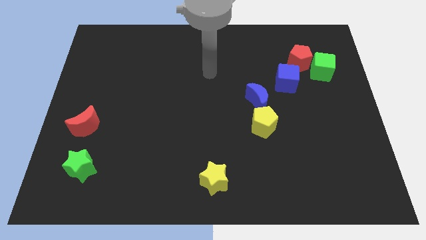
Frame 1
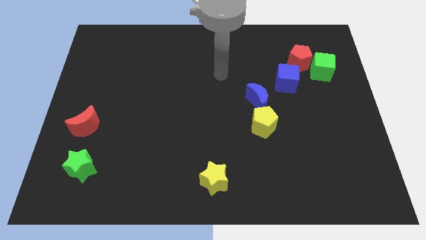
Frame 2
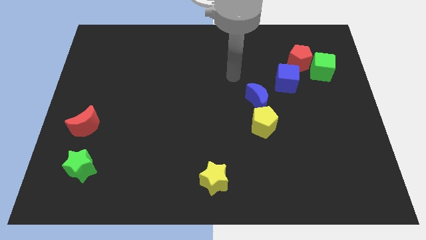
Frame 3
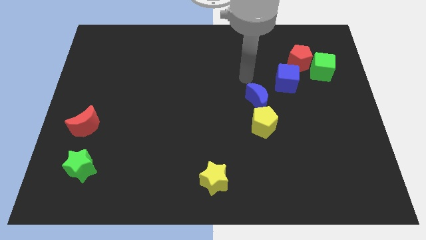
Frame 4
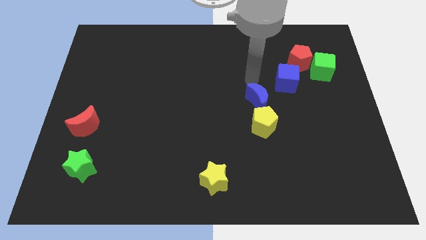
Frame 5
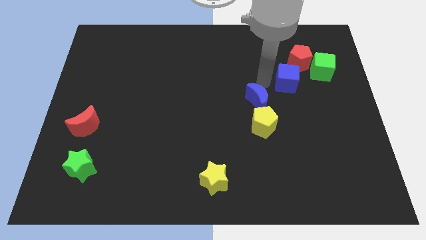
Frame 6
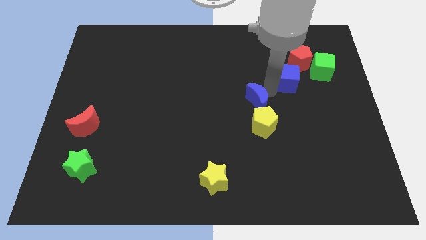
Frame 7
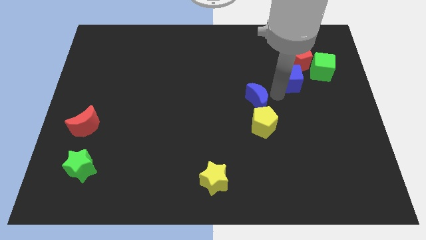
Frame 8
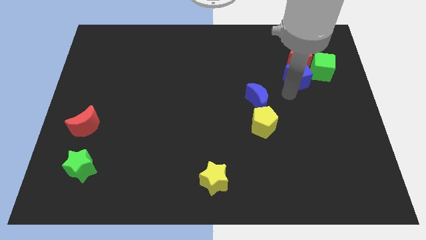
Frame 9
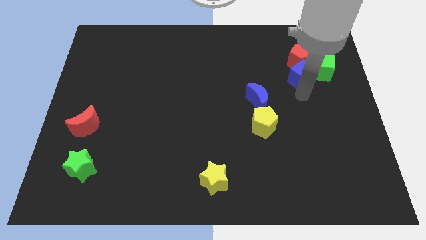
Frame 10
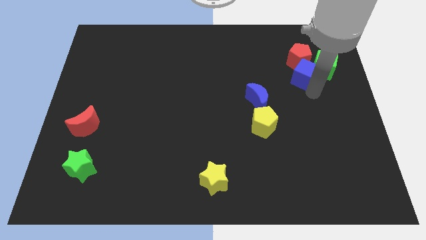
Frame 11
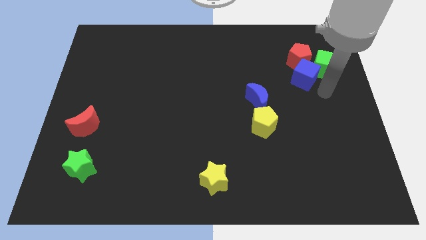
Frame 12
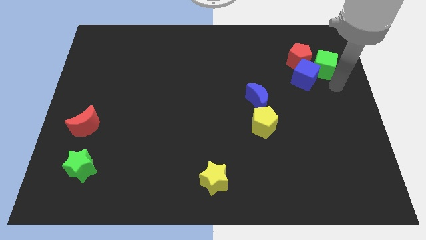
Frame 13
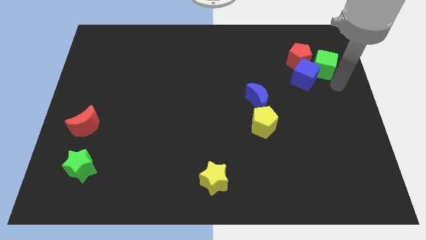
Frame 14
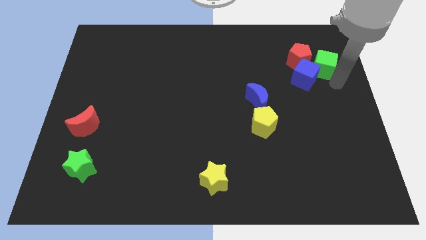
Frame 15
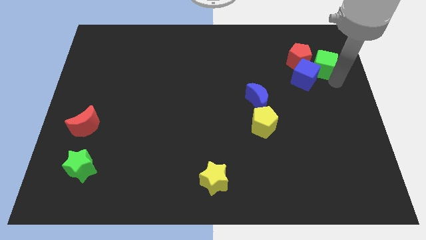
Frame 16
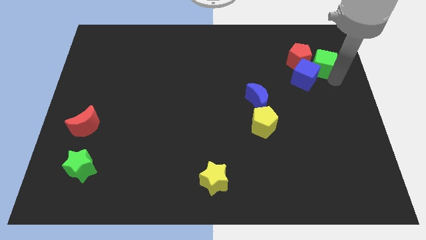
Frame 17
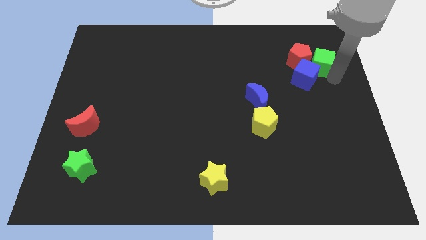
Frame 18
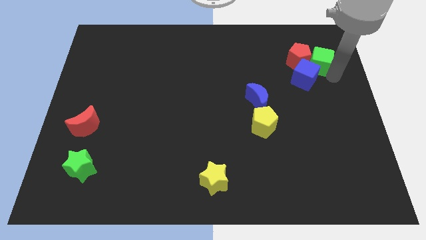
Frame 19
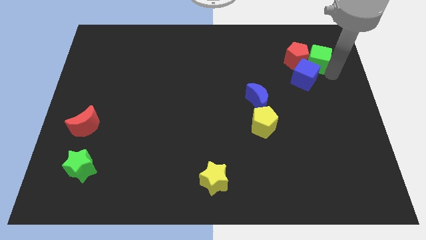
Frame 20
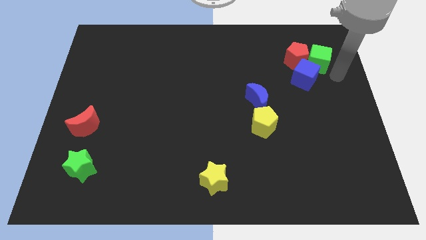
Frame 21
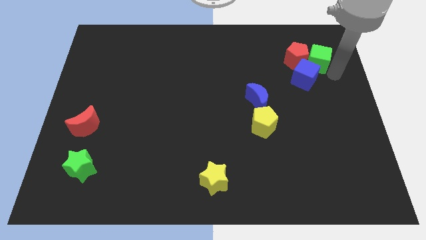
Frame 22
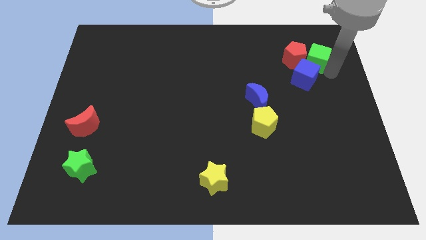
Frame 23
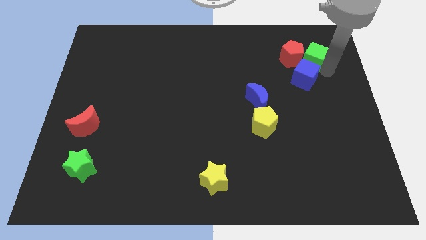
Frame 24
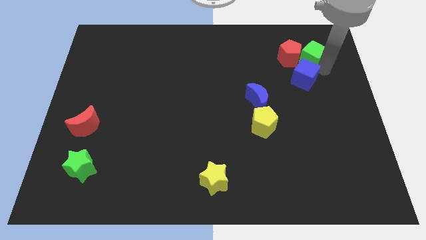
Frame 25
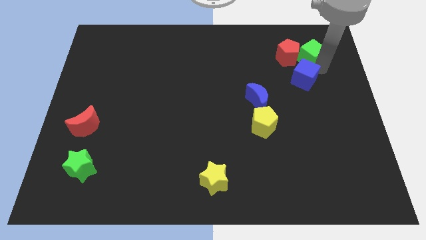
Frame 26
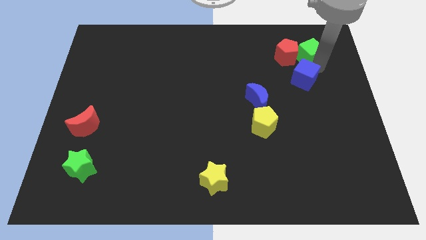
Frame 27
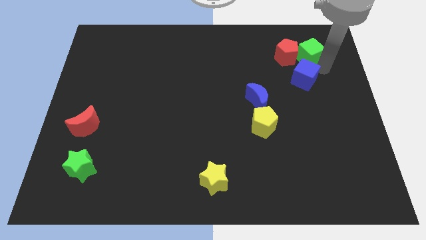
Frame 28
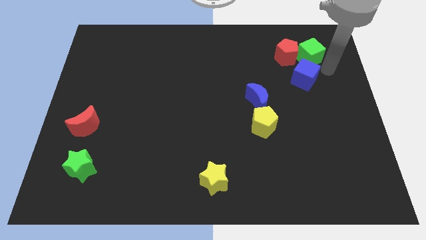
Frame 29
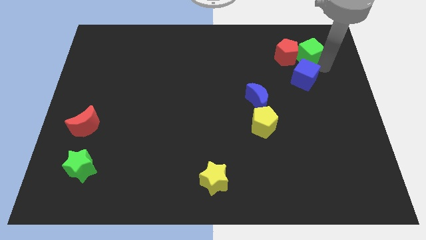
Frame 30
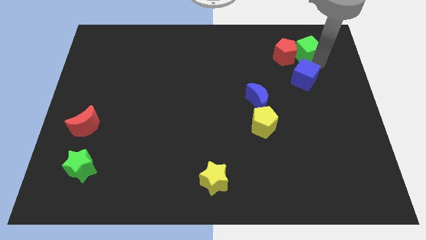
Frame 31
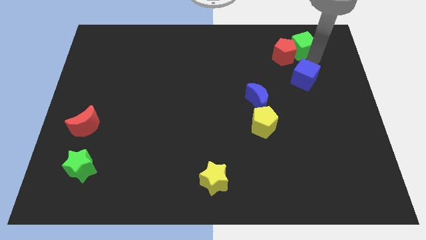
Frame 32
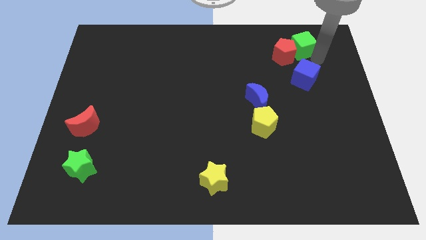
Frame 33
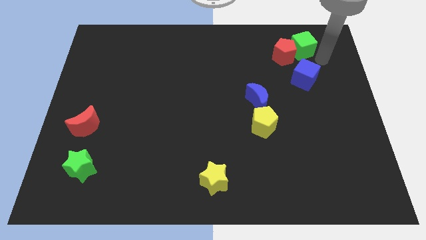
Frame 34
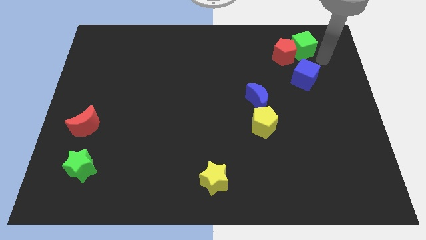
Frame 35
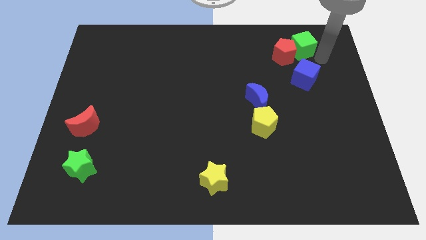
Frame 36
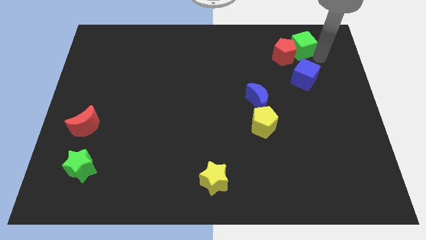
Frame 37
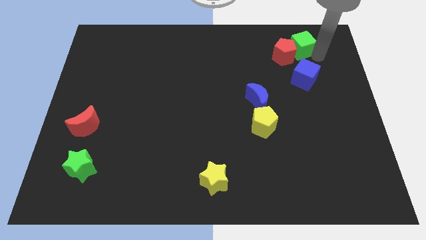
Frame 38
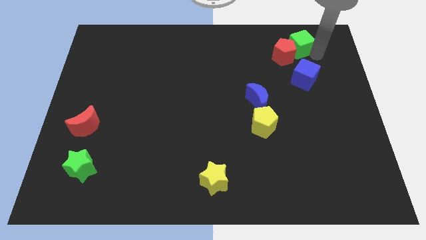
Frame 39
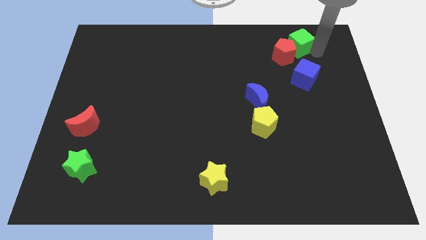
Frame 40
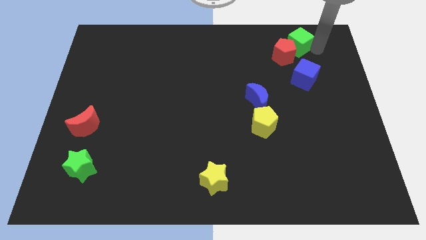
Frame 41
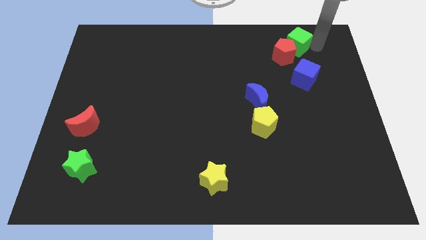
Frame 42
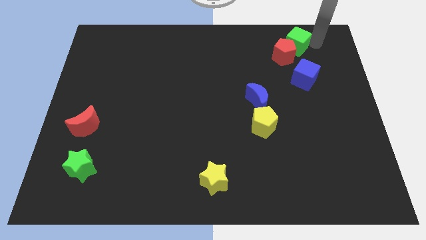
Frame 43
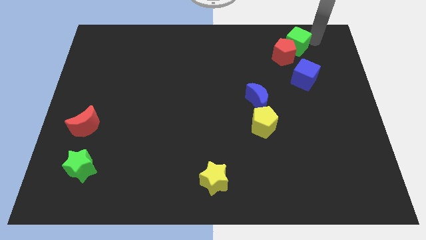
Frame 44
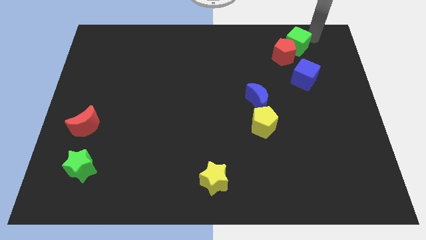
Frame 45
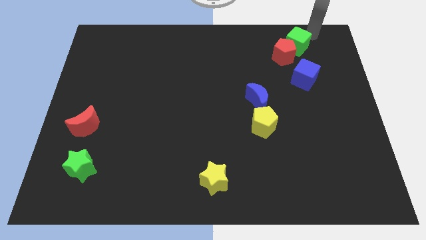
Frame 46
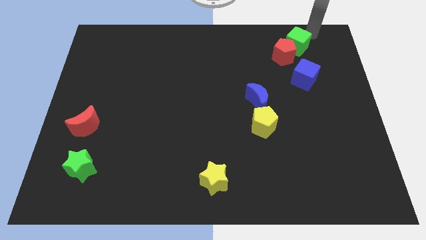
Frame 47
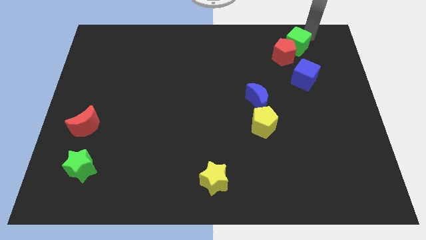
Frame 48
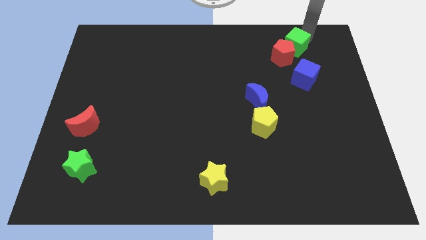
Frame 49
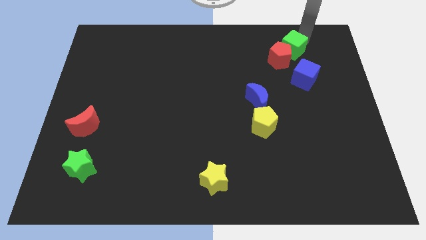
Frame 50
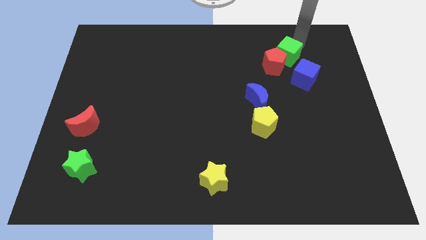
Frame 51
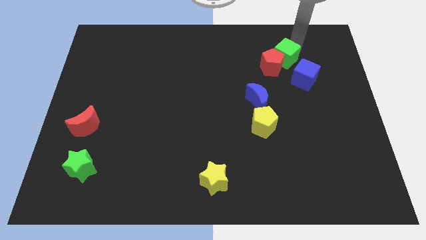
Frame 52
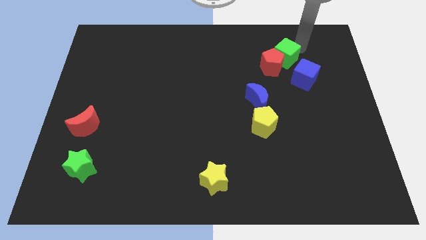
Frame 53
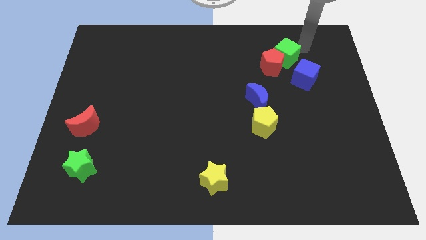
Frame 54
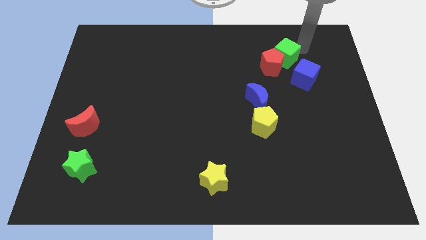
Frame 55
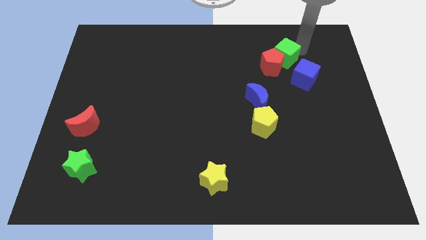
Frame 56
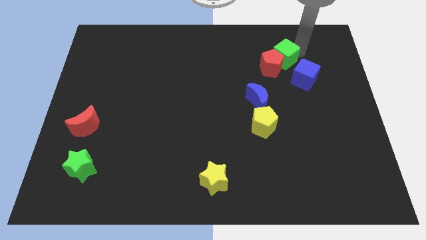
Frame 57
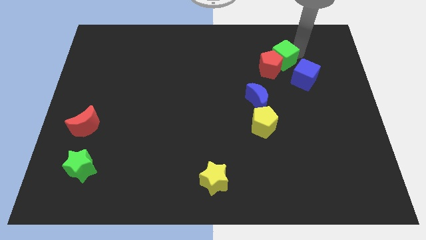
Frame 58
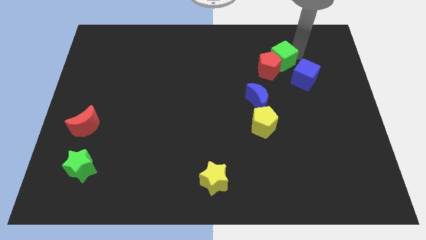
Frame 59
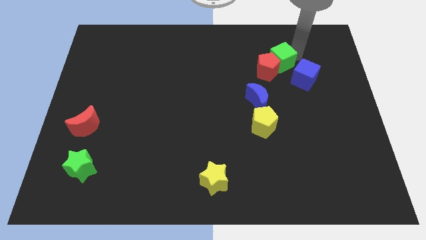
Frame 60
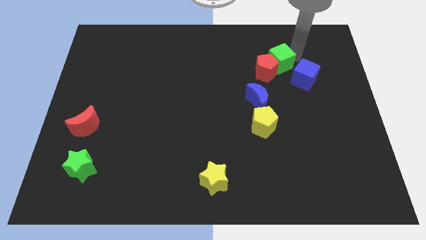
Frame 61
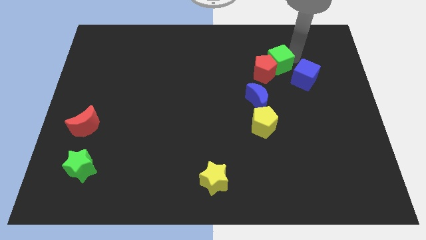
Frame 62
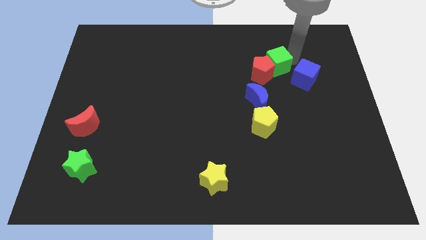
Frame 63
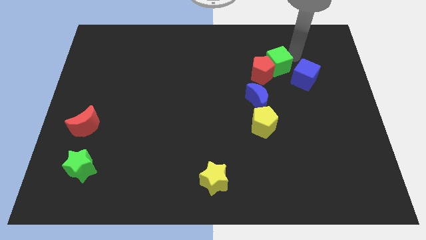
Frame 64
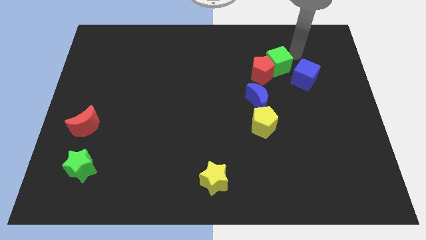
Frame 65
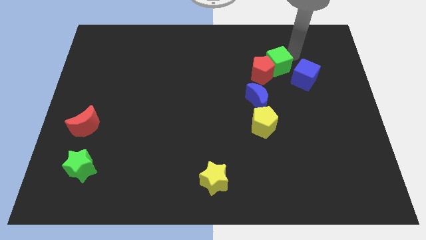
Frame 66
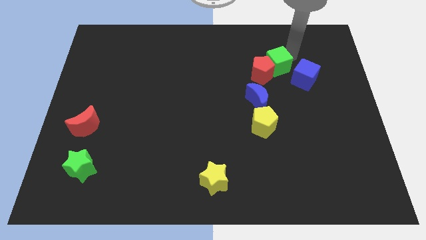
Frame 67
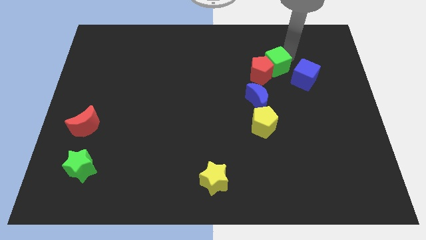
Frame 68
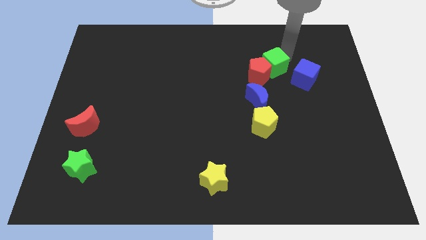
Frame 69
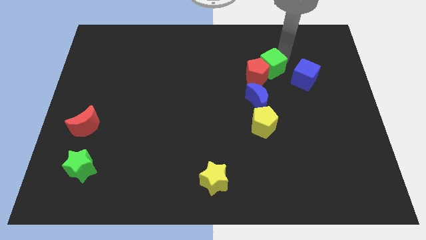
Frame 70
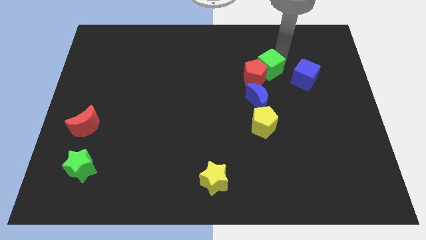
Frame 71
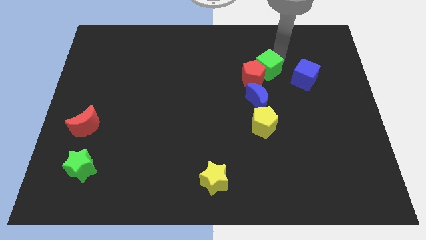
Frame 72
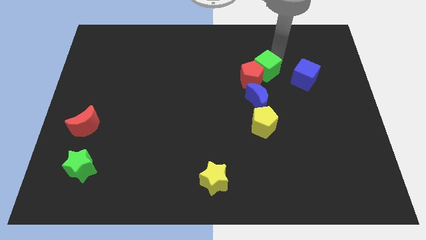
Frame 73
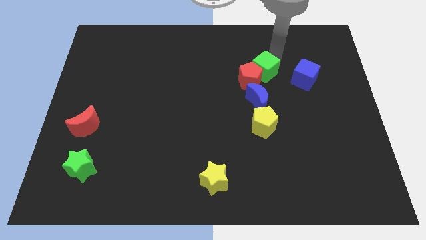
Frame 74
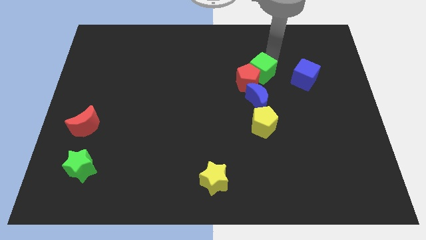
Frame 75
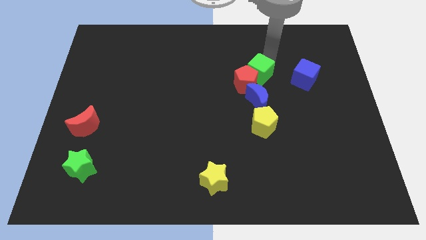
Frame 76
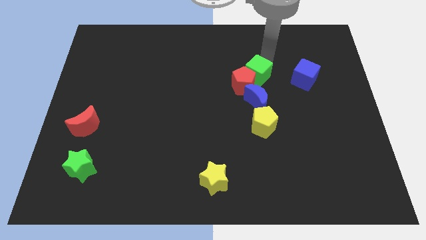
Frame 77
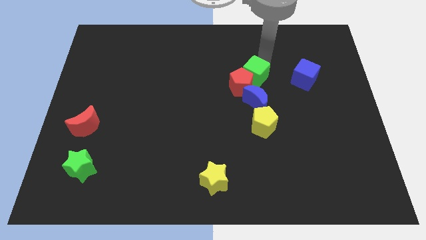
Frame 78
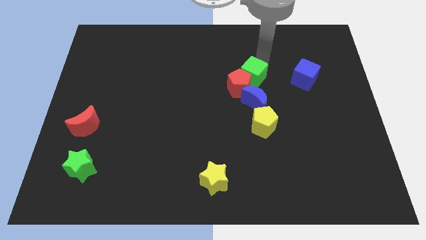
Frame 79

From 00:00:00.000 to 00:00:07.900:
put the green cube to the middle
